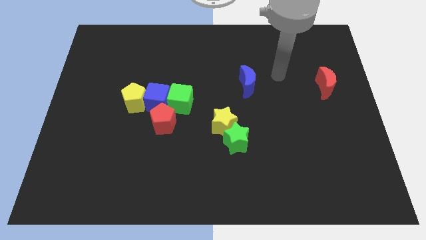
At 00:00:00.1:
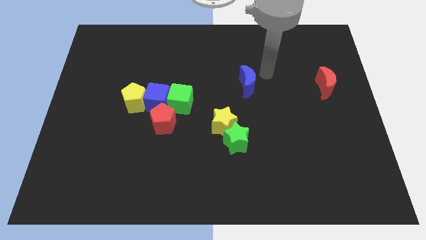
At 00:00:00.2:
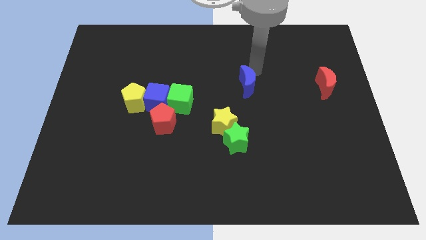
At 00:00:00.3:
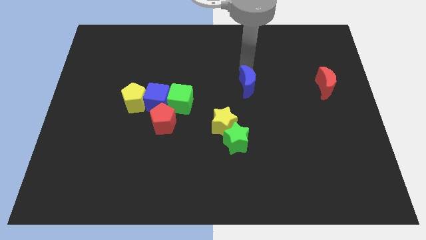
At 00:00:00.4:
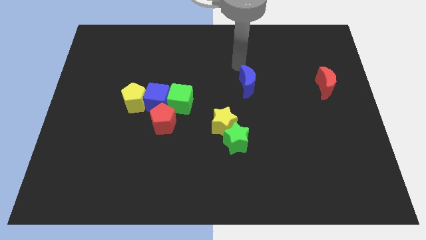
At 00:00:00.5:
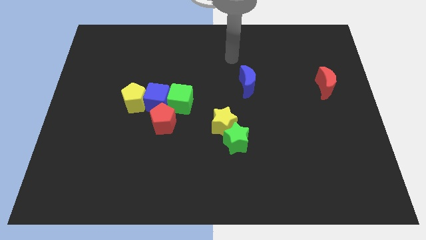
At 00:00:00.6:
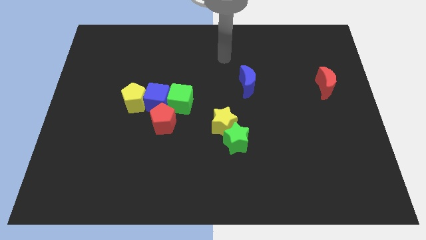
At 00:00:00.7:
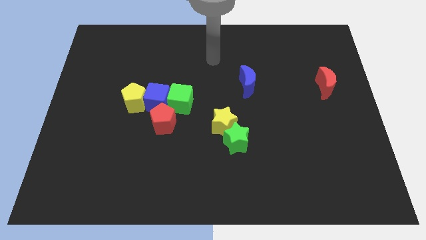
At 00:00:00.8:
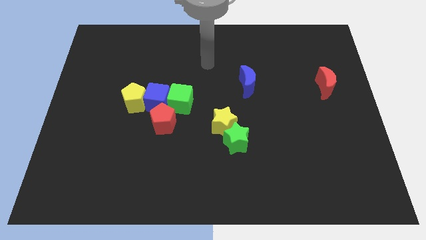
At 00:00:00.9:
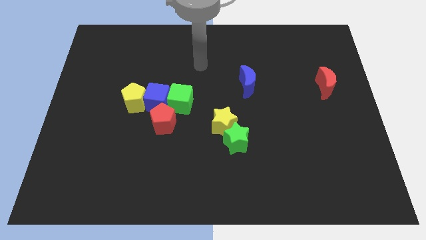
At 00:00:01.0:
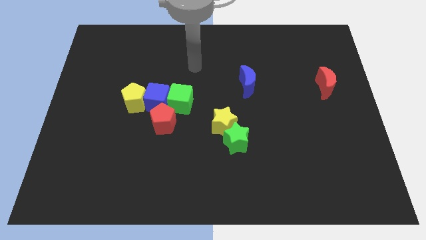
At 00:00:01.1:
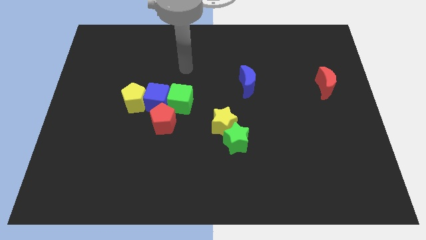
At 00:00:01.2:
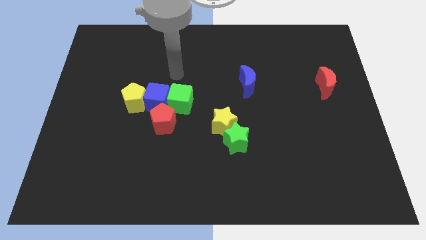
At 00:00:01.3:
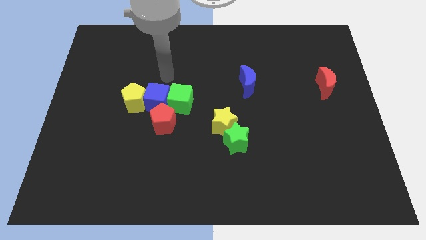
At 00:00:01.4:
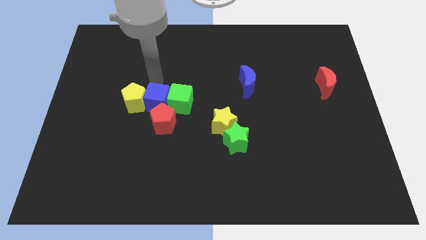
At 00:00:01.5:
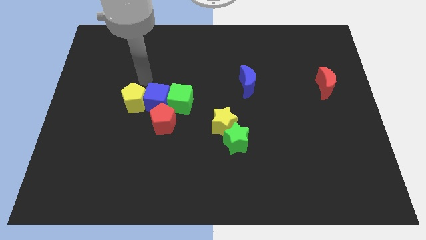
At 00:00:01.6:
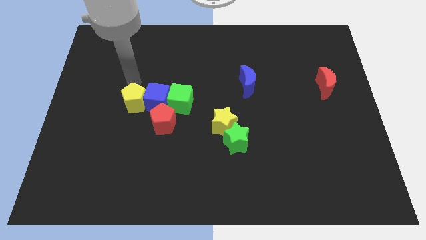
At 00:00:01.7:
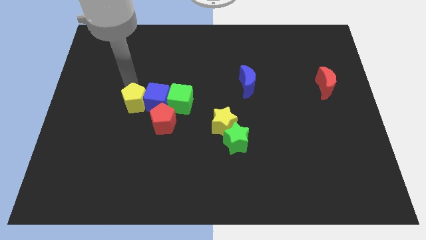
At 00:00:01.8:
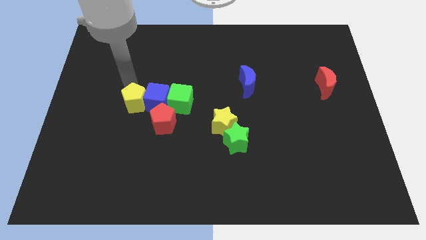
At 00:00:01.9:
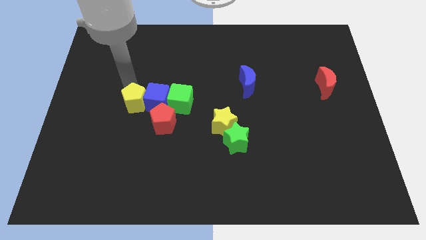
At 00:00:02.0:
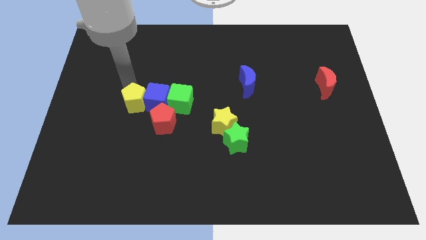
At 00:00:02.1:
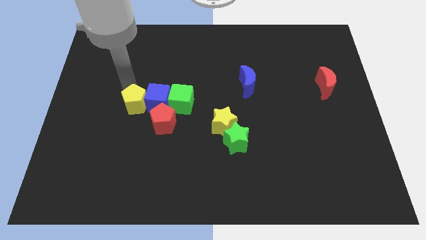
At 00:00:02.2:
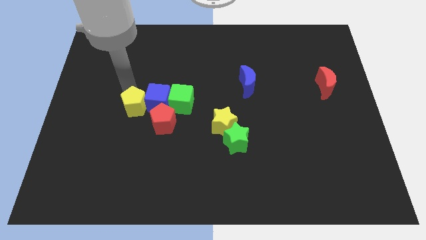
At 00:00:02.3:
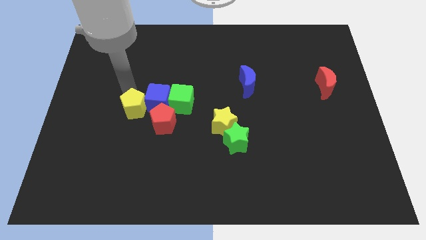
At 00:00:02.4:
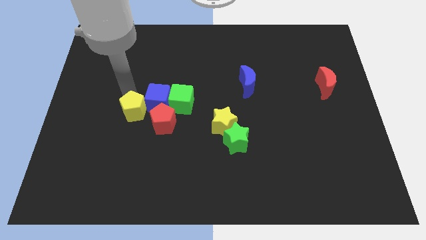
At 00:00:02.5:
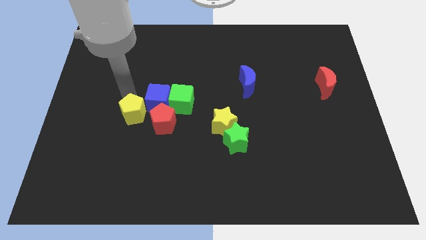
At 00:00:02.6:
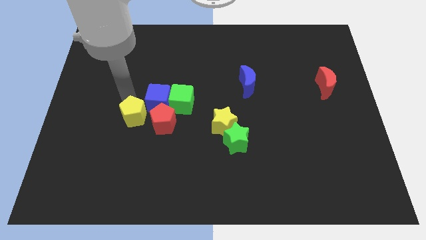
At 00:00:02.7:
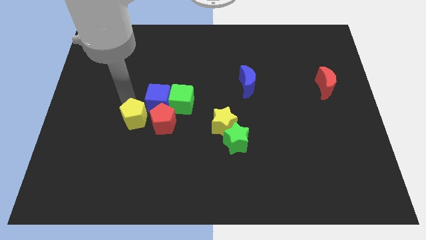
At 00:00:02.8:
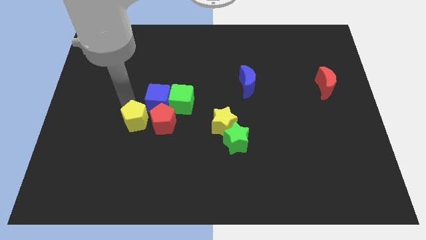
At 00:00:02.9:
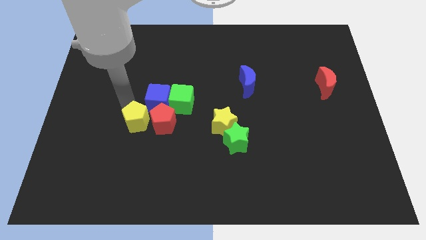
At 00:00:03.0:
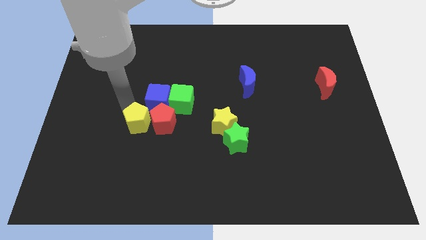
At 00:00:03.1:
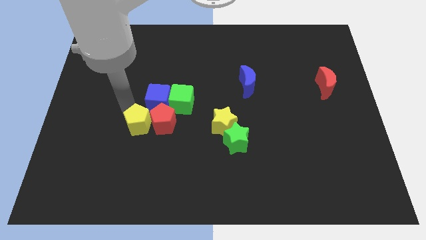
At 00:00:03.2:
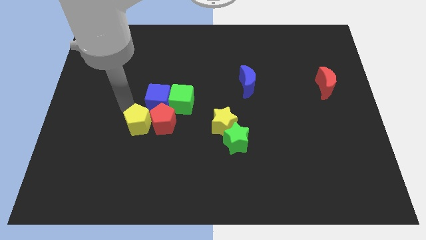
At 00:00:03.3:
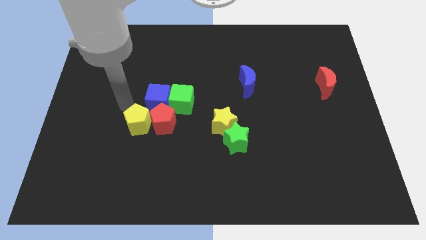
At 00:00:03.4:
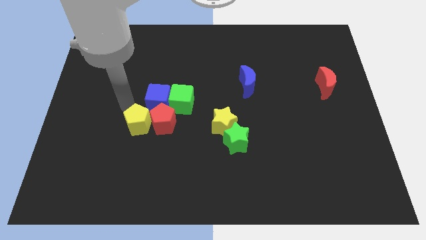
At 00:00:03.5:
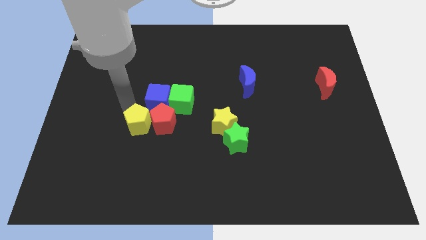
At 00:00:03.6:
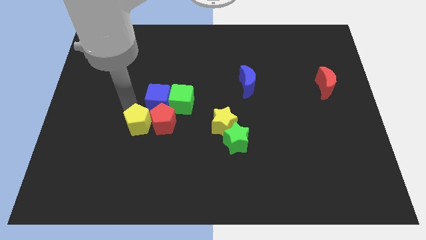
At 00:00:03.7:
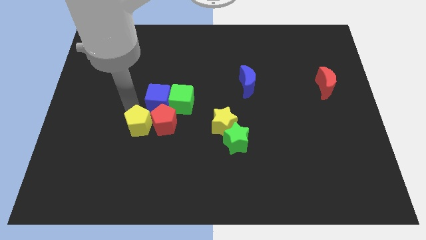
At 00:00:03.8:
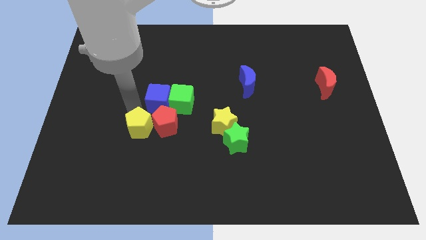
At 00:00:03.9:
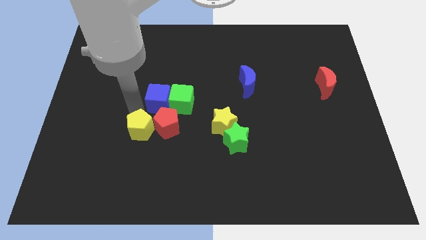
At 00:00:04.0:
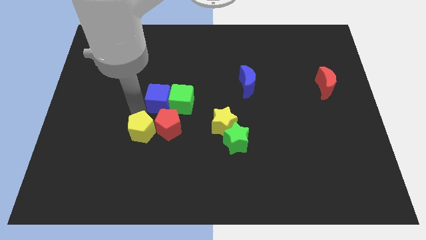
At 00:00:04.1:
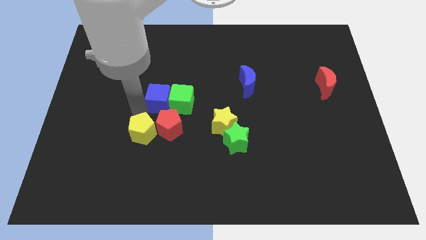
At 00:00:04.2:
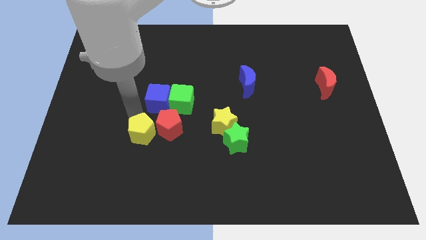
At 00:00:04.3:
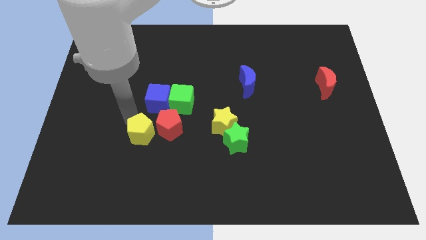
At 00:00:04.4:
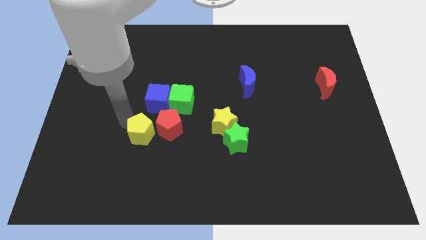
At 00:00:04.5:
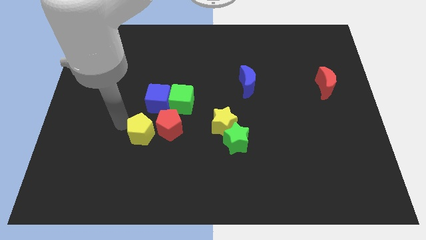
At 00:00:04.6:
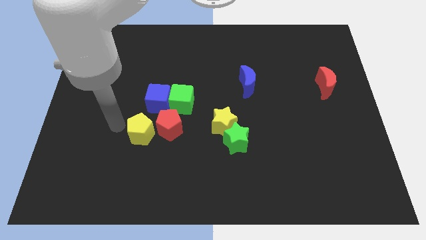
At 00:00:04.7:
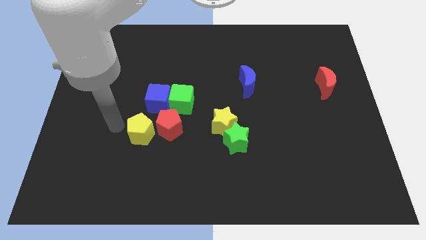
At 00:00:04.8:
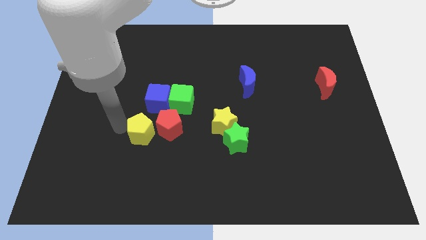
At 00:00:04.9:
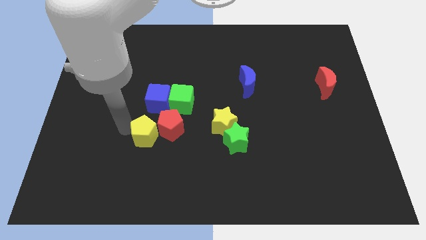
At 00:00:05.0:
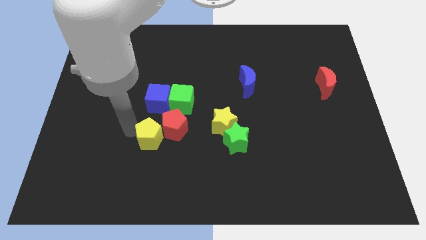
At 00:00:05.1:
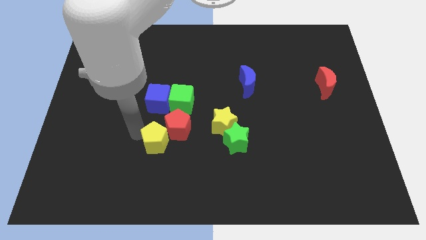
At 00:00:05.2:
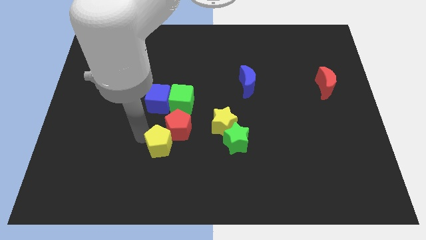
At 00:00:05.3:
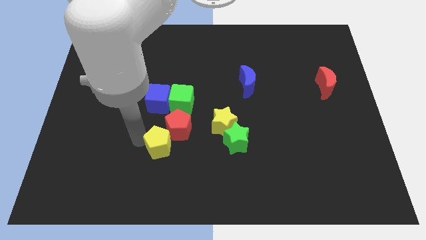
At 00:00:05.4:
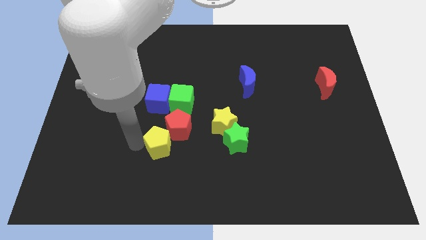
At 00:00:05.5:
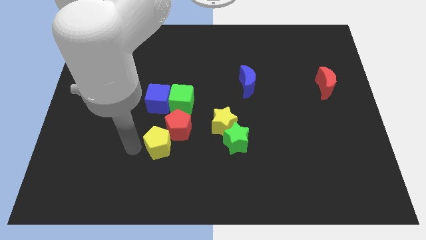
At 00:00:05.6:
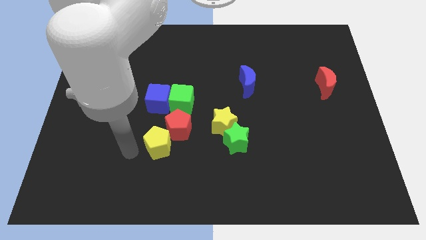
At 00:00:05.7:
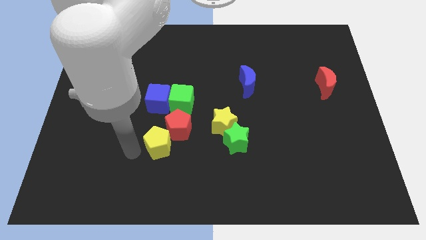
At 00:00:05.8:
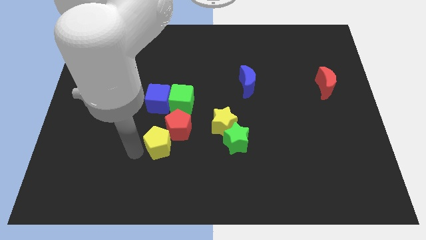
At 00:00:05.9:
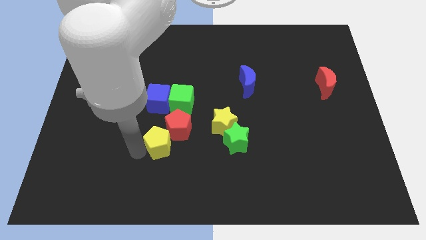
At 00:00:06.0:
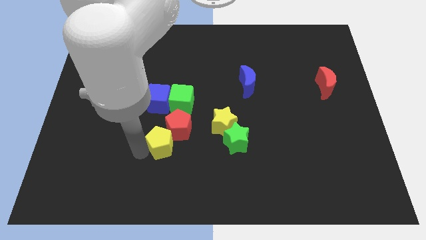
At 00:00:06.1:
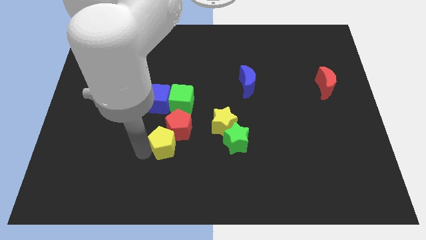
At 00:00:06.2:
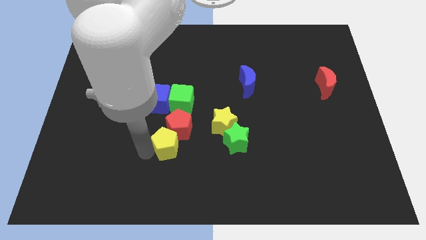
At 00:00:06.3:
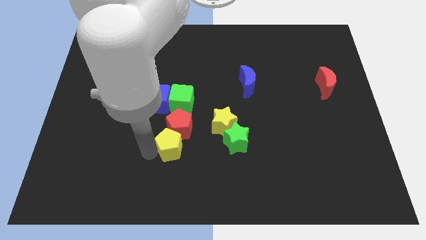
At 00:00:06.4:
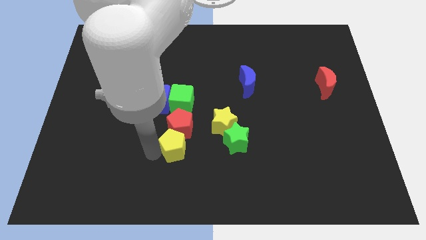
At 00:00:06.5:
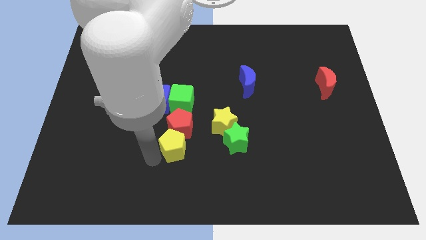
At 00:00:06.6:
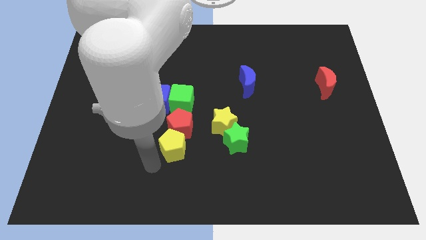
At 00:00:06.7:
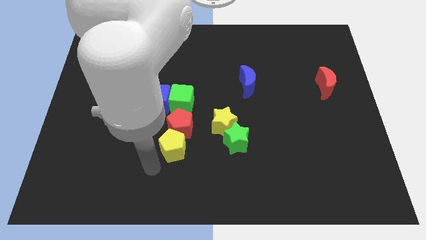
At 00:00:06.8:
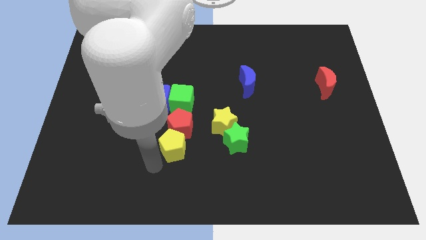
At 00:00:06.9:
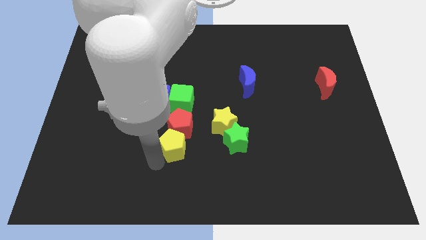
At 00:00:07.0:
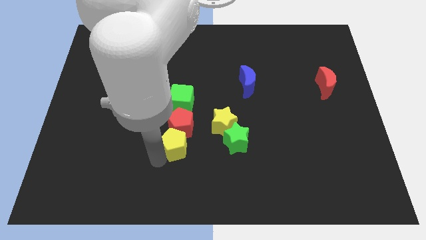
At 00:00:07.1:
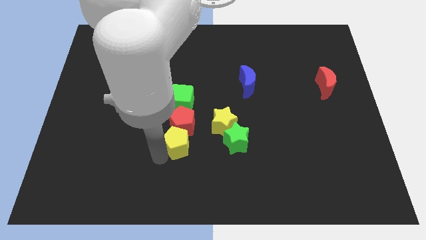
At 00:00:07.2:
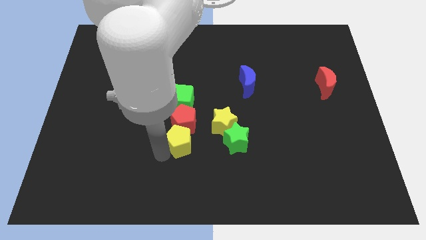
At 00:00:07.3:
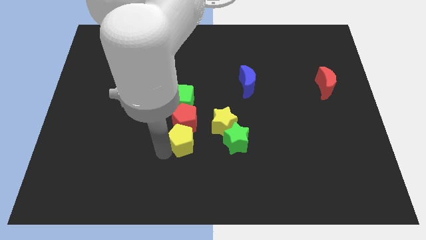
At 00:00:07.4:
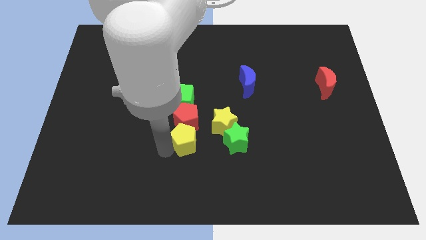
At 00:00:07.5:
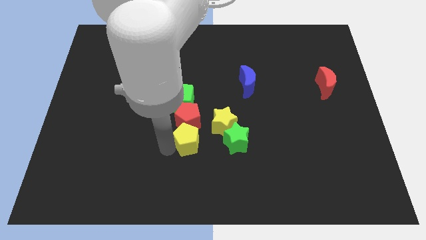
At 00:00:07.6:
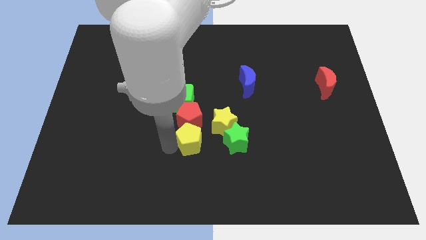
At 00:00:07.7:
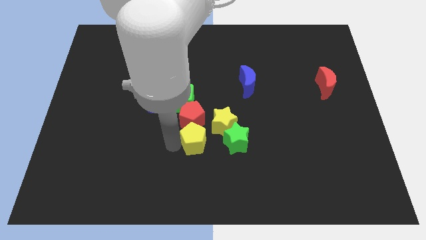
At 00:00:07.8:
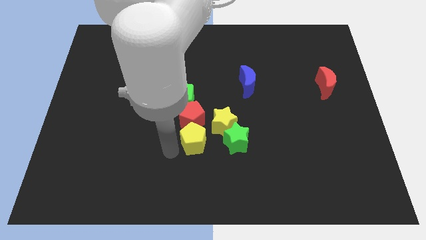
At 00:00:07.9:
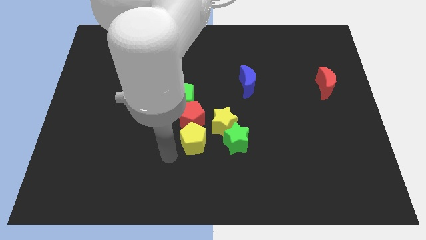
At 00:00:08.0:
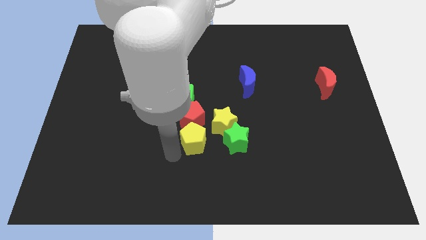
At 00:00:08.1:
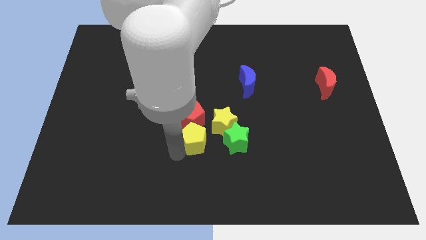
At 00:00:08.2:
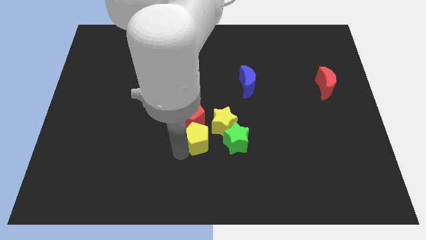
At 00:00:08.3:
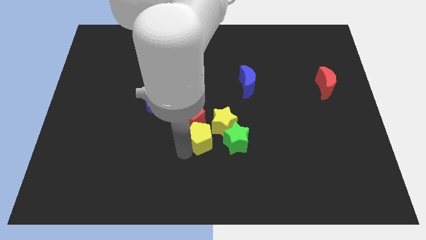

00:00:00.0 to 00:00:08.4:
slide the yellow pentagon next to the yellow star
